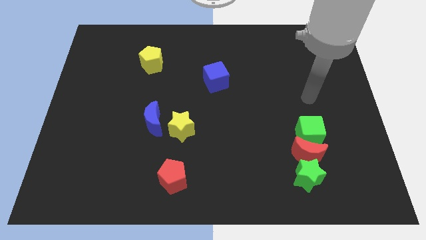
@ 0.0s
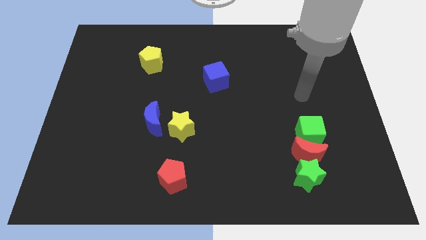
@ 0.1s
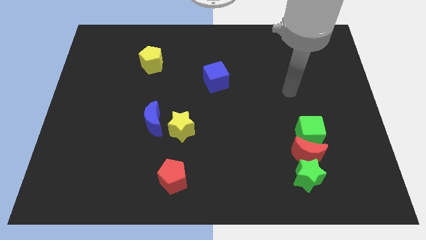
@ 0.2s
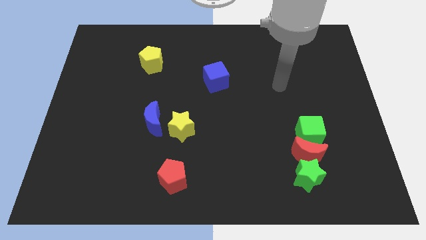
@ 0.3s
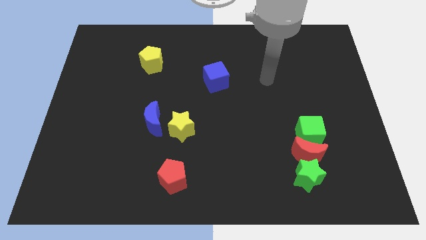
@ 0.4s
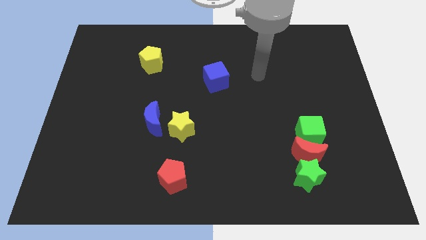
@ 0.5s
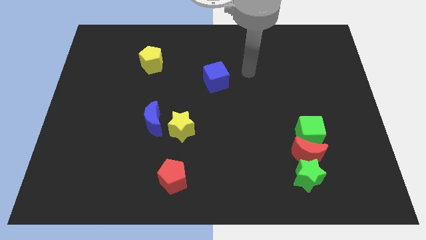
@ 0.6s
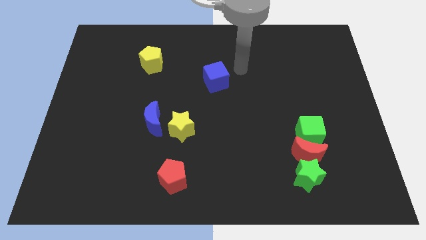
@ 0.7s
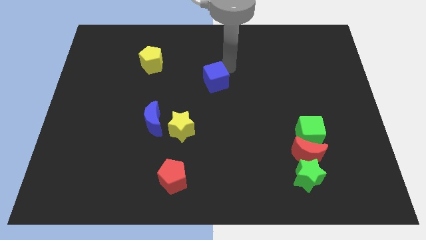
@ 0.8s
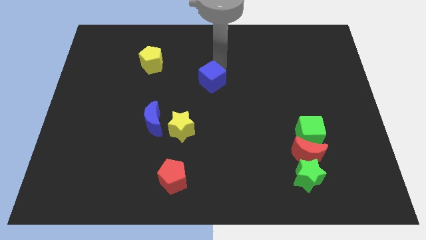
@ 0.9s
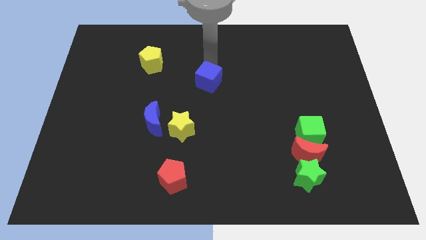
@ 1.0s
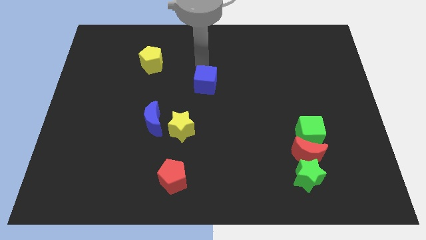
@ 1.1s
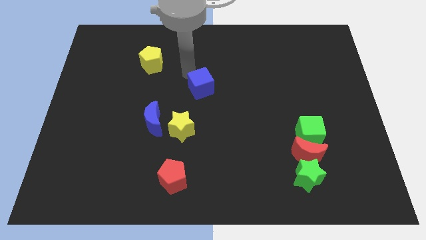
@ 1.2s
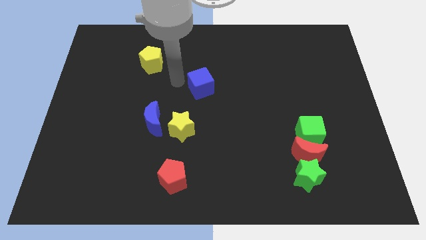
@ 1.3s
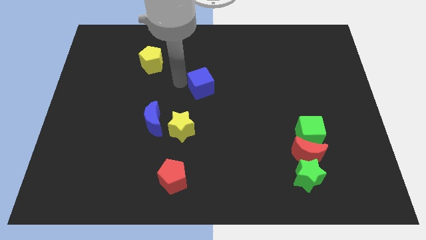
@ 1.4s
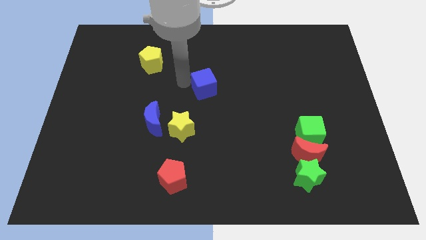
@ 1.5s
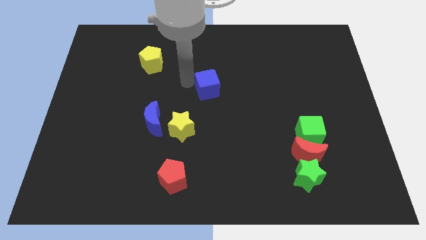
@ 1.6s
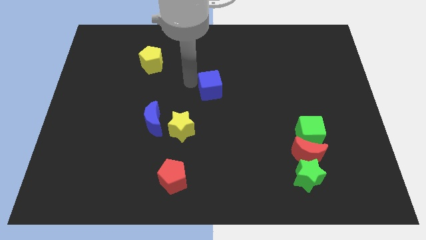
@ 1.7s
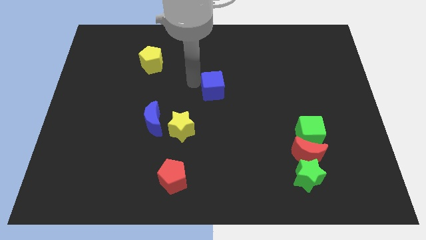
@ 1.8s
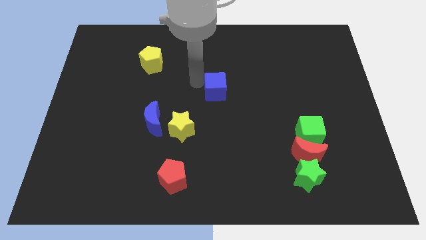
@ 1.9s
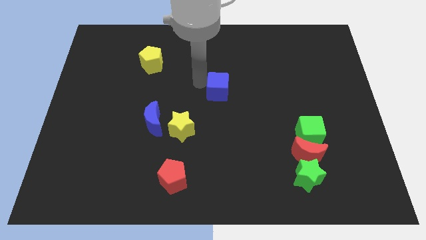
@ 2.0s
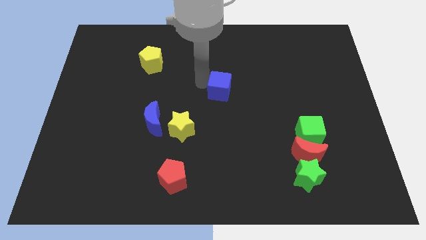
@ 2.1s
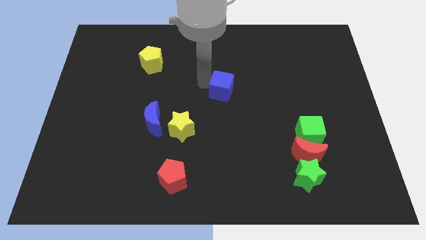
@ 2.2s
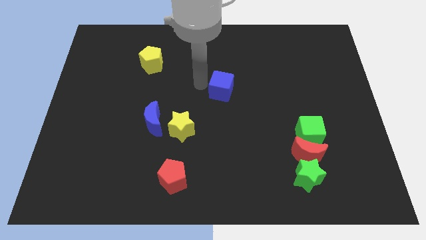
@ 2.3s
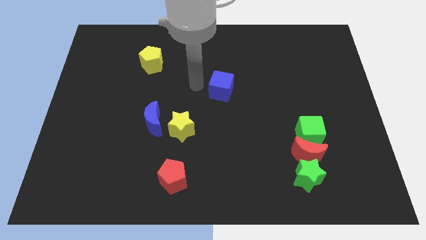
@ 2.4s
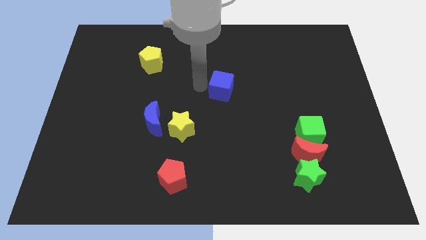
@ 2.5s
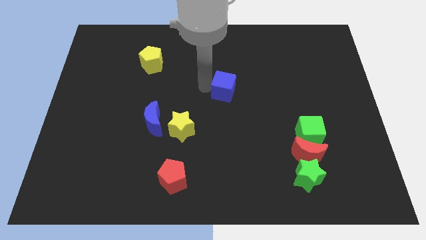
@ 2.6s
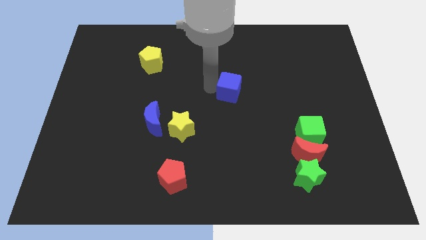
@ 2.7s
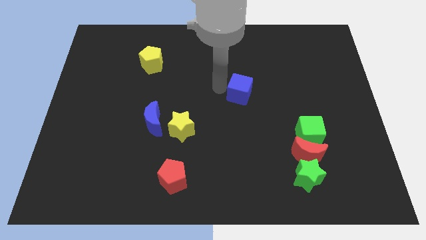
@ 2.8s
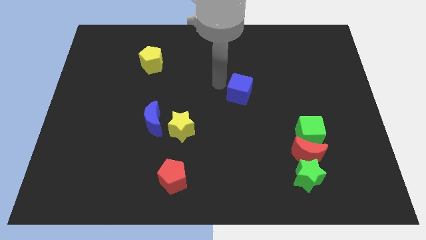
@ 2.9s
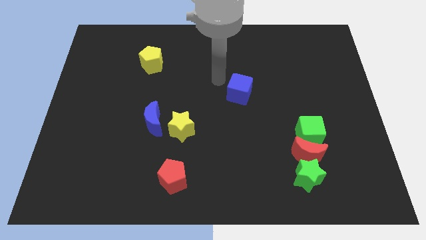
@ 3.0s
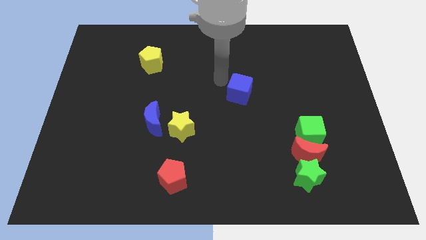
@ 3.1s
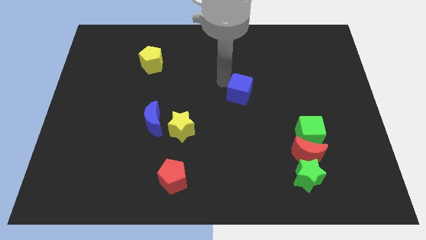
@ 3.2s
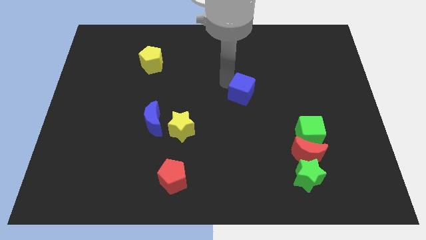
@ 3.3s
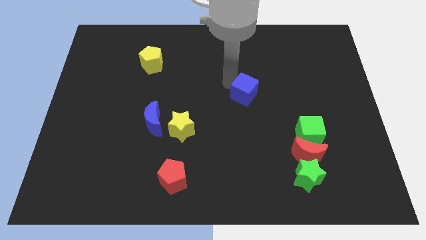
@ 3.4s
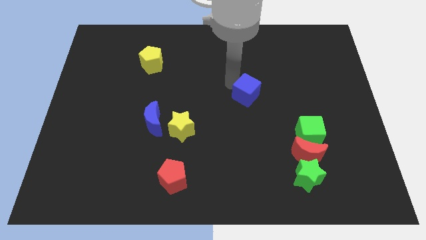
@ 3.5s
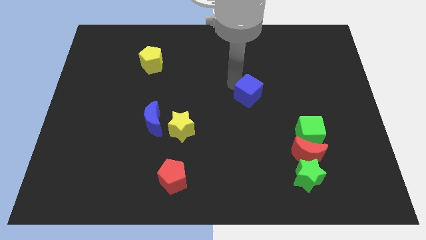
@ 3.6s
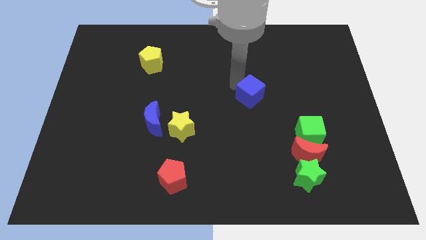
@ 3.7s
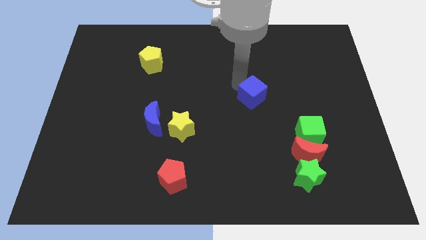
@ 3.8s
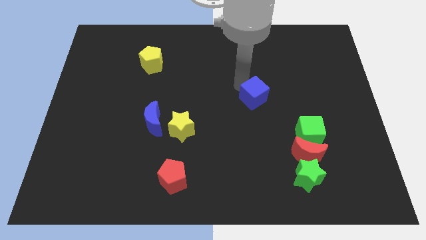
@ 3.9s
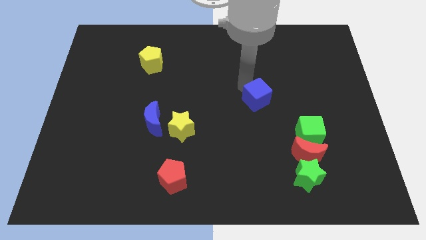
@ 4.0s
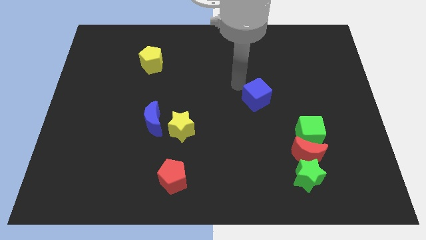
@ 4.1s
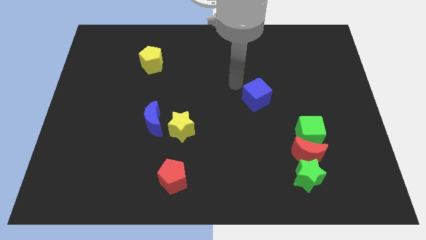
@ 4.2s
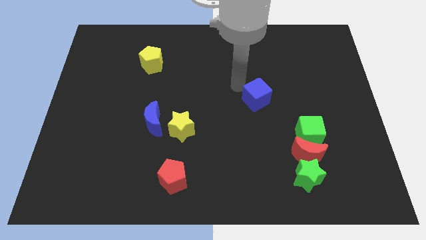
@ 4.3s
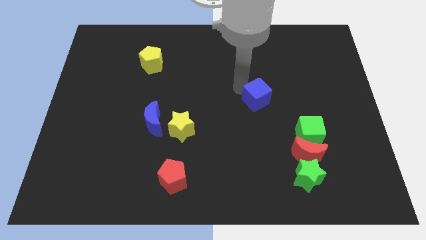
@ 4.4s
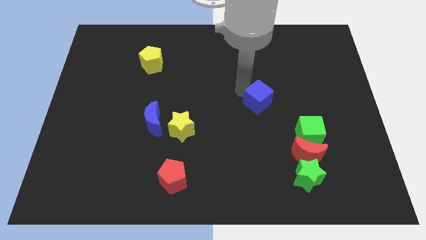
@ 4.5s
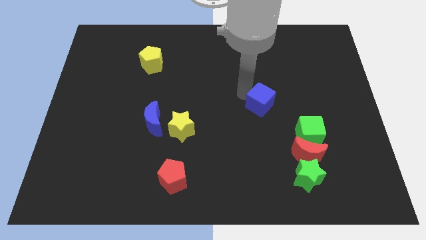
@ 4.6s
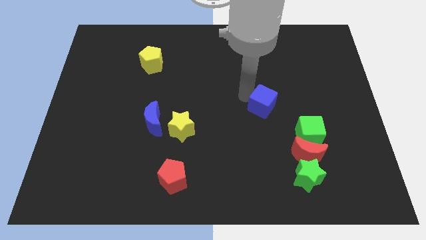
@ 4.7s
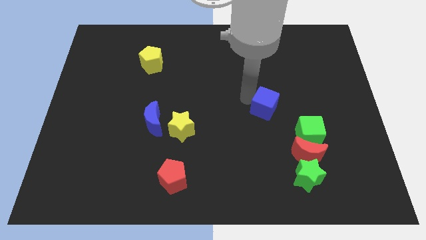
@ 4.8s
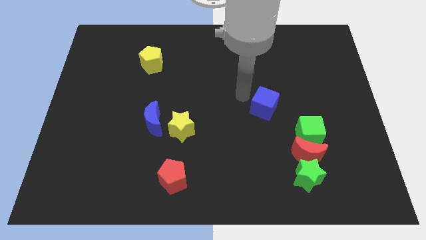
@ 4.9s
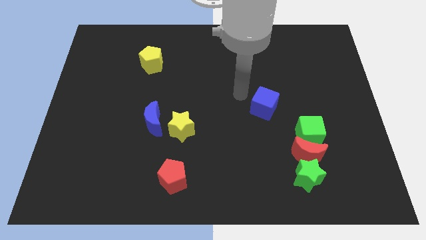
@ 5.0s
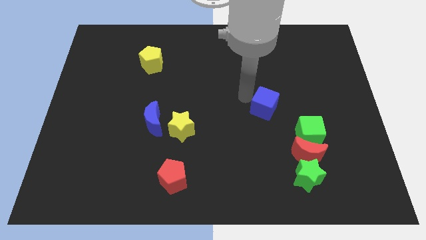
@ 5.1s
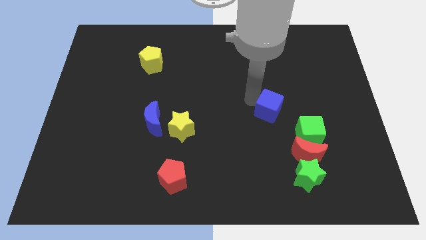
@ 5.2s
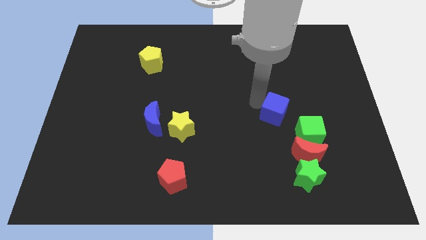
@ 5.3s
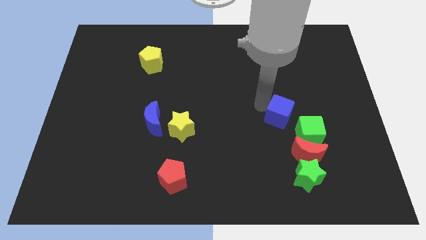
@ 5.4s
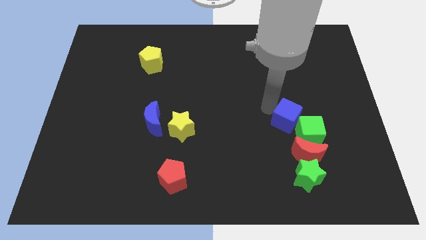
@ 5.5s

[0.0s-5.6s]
slide the blue cube to the top of the green star
